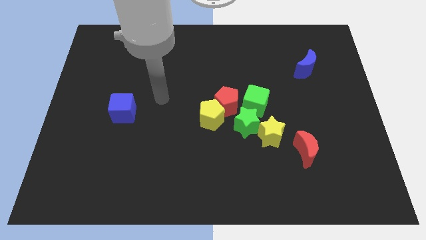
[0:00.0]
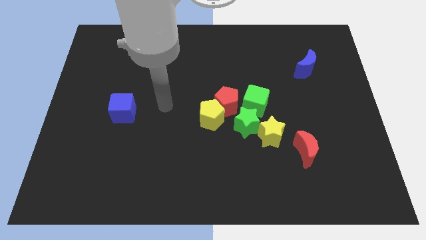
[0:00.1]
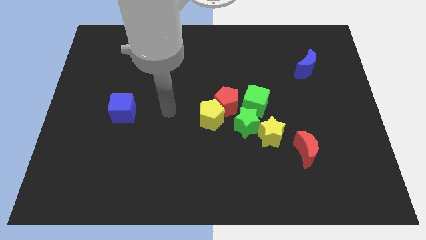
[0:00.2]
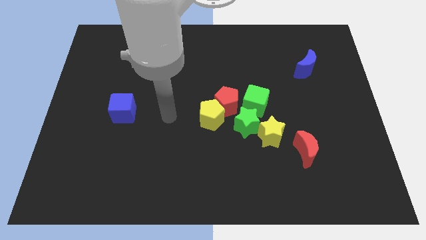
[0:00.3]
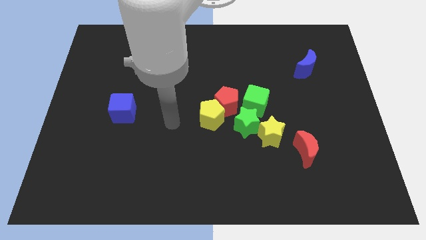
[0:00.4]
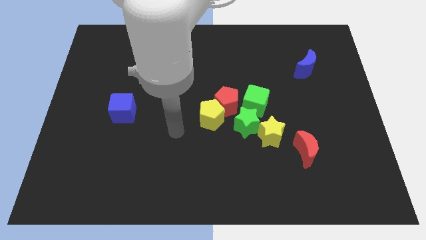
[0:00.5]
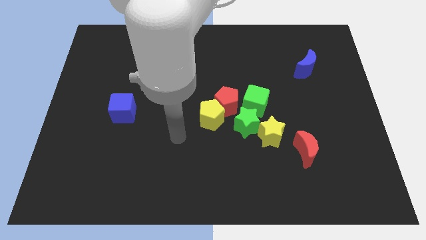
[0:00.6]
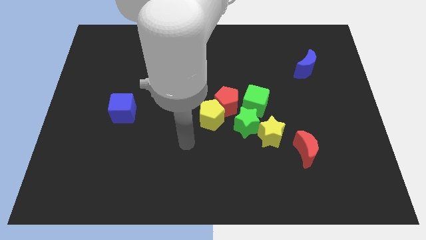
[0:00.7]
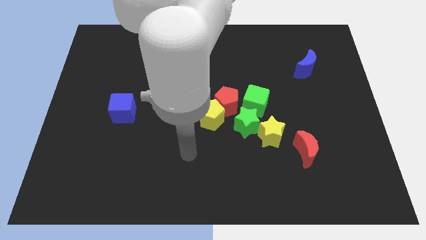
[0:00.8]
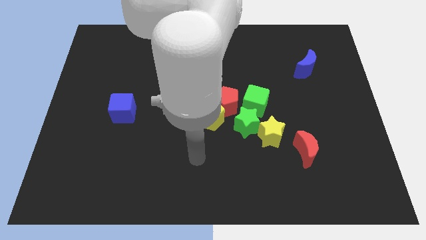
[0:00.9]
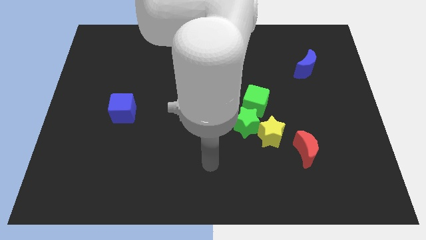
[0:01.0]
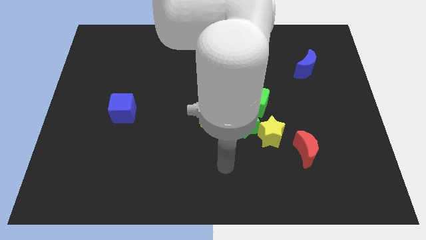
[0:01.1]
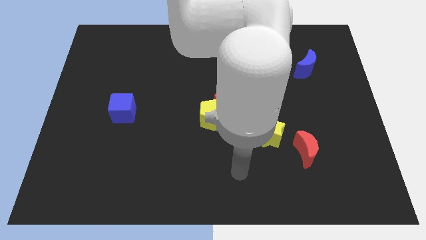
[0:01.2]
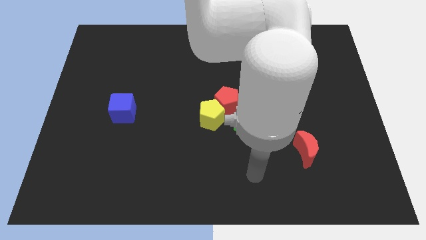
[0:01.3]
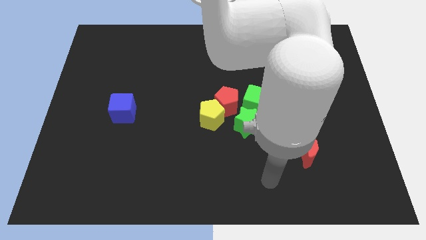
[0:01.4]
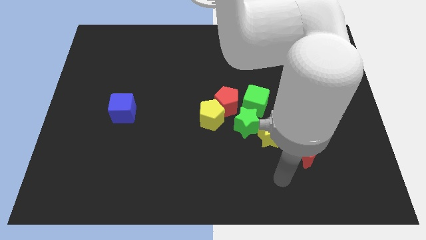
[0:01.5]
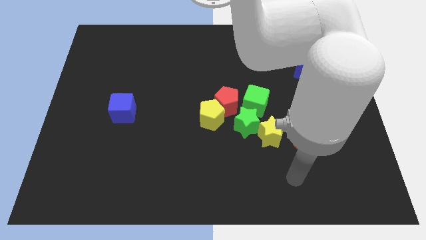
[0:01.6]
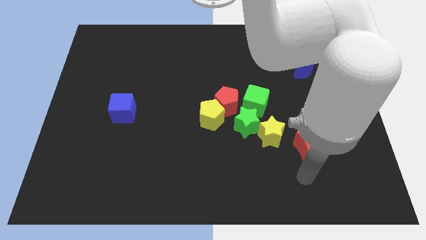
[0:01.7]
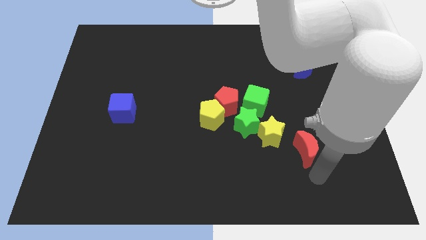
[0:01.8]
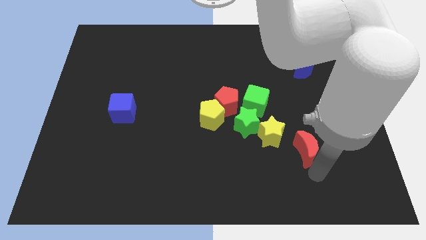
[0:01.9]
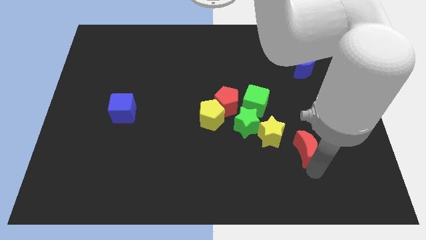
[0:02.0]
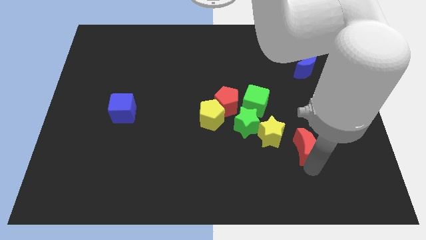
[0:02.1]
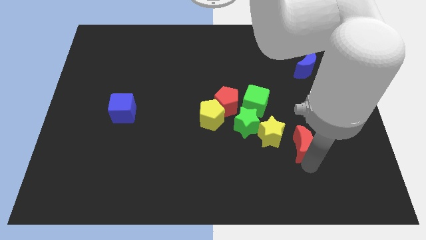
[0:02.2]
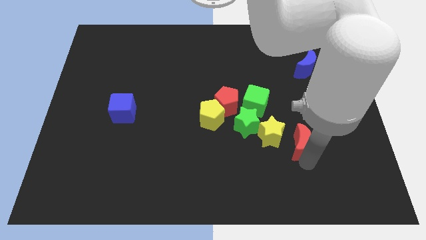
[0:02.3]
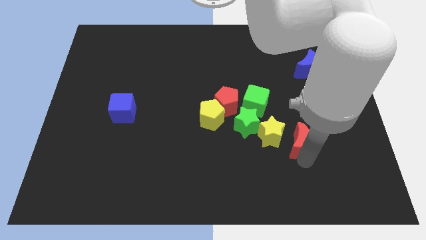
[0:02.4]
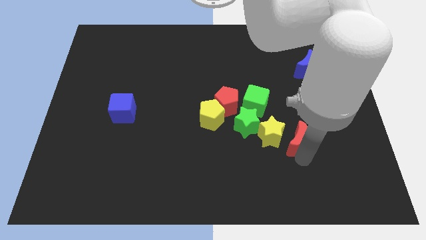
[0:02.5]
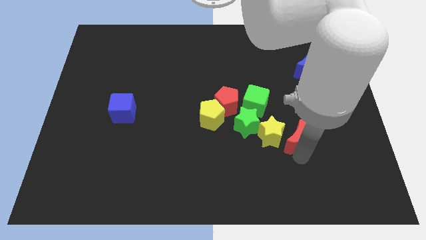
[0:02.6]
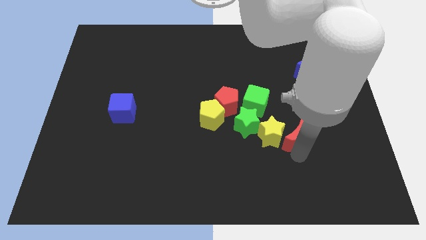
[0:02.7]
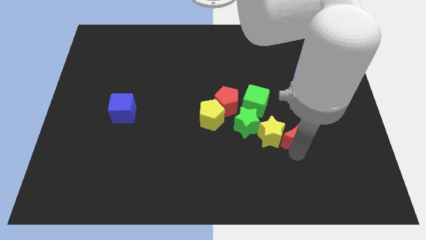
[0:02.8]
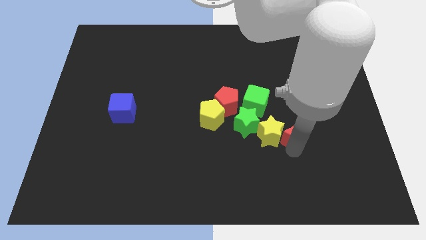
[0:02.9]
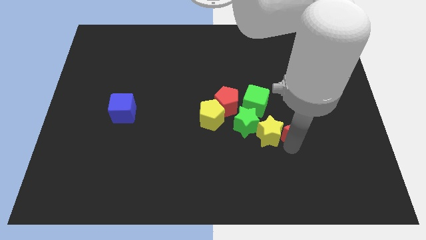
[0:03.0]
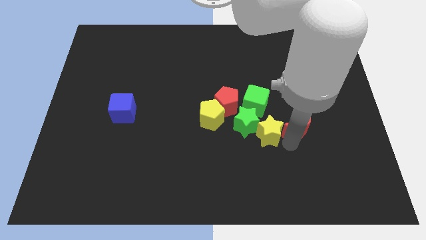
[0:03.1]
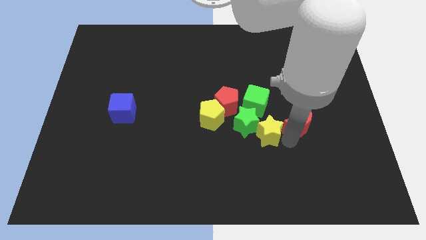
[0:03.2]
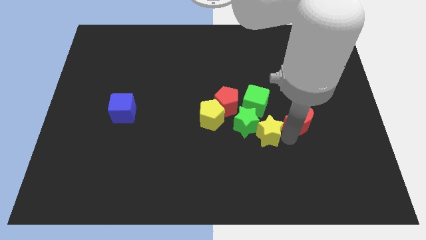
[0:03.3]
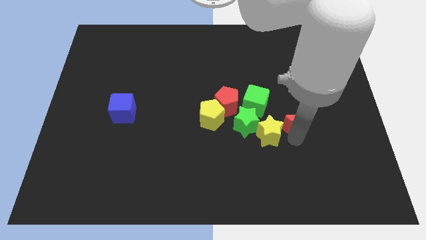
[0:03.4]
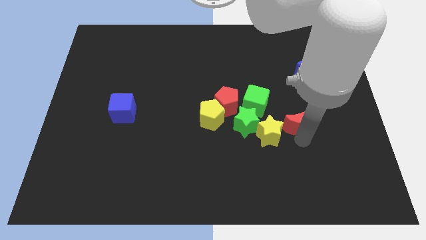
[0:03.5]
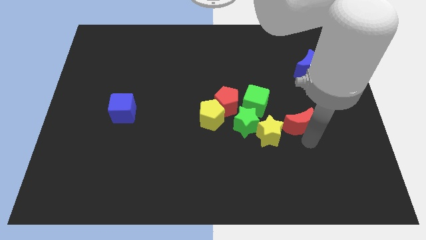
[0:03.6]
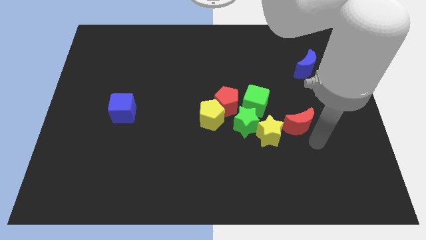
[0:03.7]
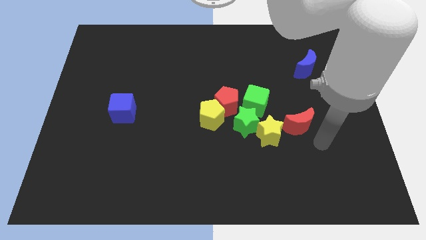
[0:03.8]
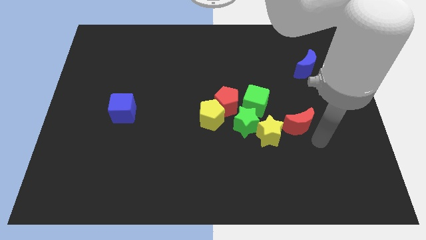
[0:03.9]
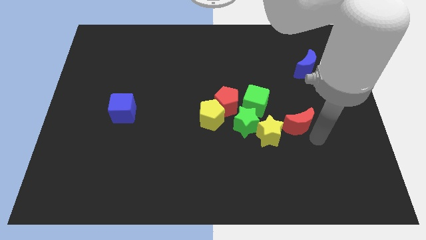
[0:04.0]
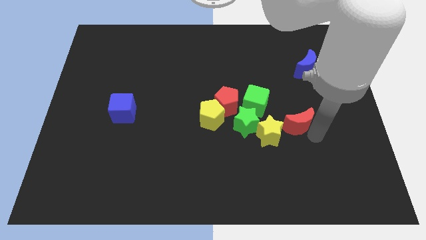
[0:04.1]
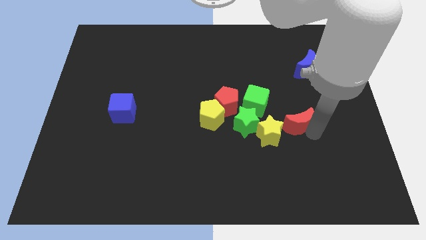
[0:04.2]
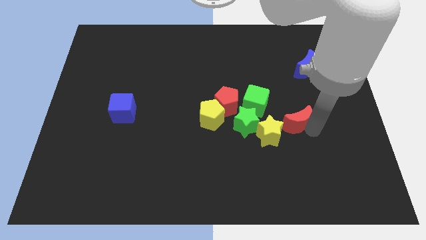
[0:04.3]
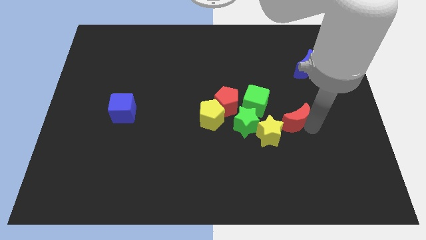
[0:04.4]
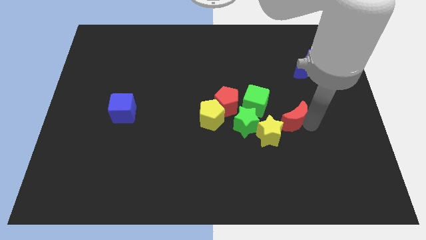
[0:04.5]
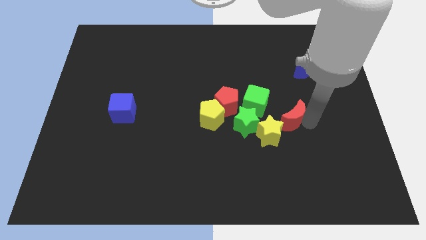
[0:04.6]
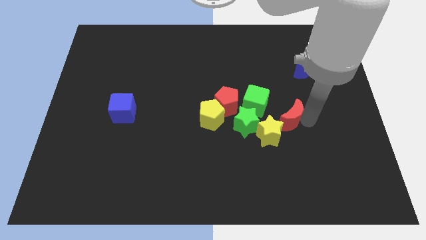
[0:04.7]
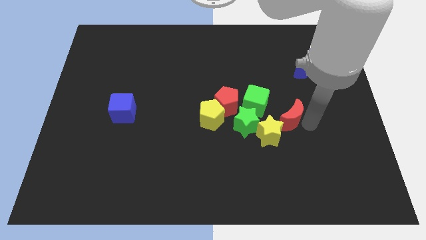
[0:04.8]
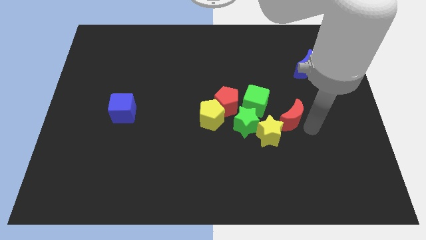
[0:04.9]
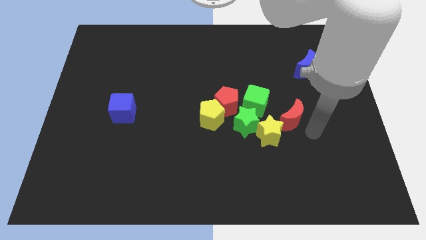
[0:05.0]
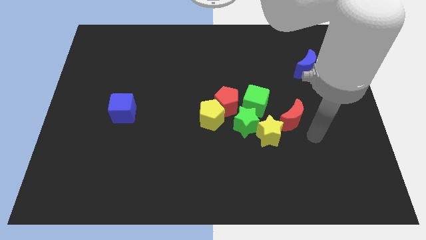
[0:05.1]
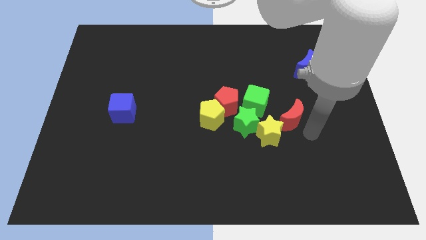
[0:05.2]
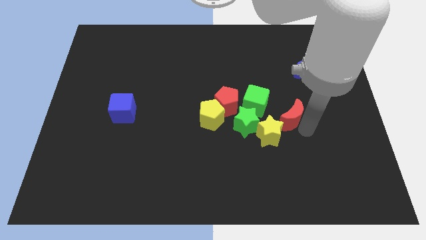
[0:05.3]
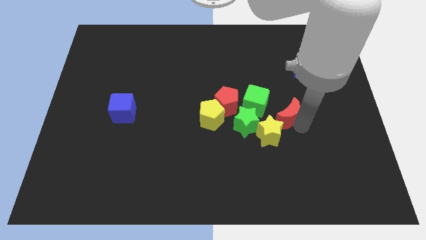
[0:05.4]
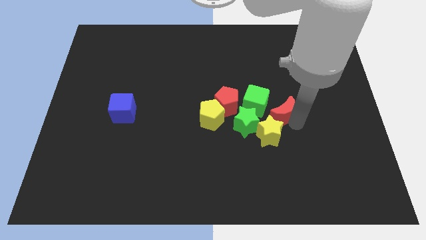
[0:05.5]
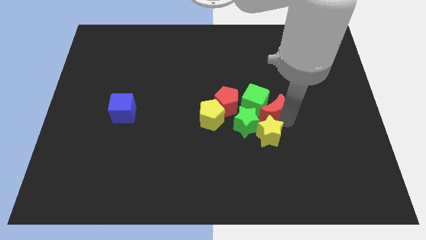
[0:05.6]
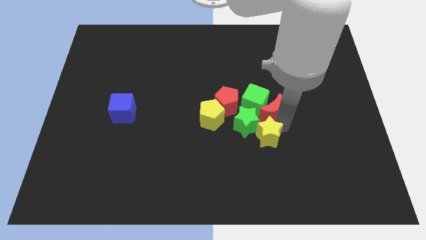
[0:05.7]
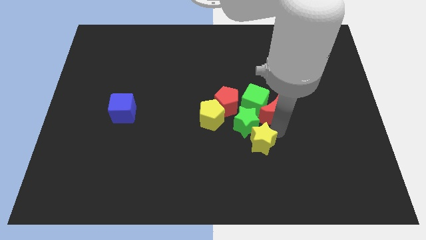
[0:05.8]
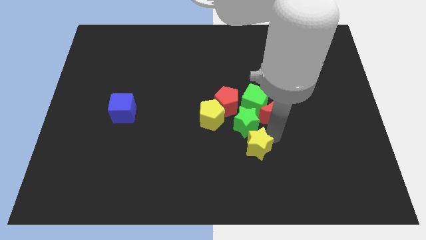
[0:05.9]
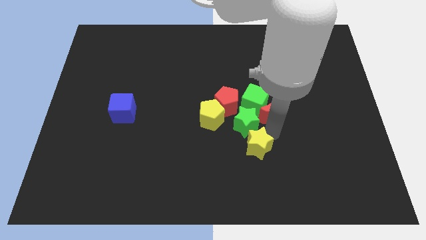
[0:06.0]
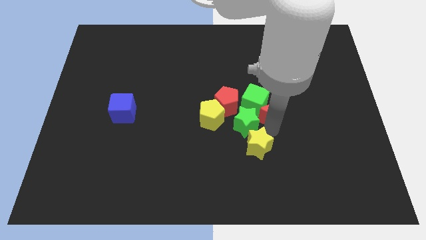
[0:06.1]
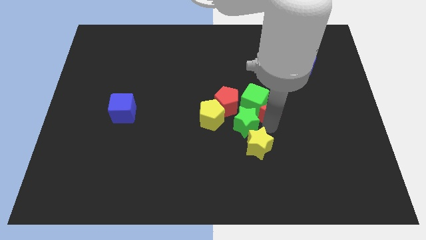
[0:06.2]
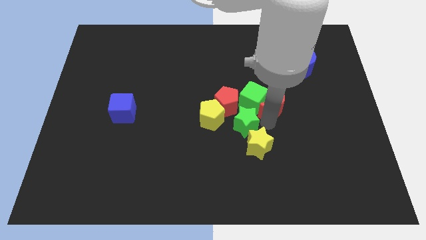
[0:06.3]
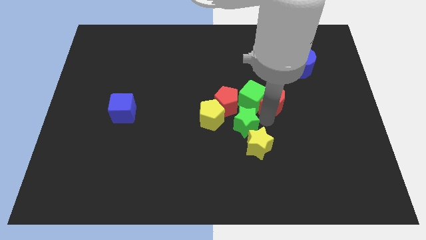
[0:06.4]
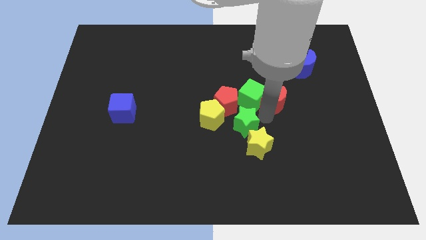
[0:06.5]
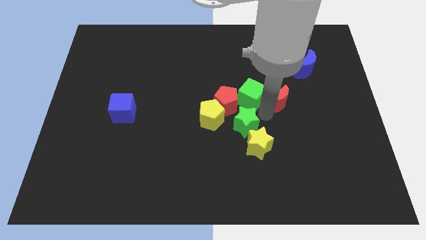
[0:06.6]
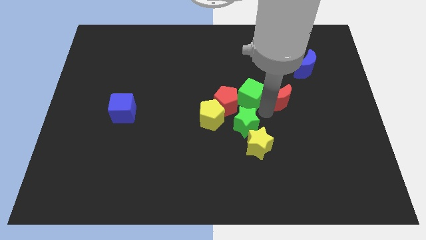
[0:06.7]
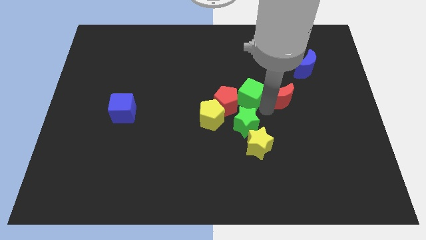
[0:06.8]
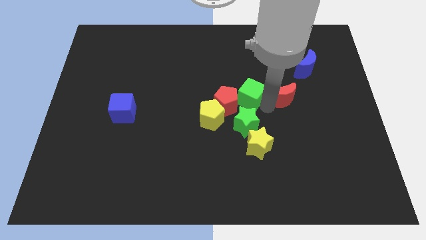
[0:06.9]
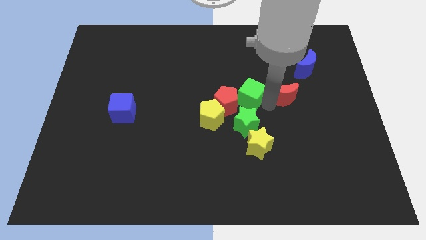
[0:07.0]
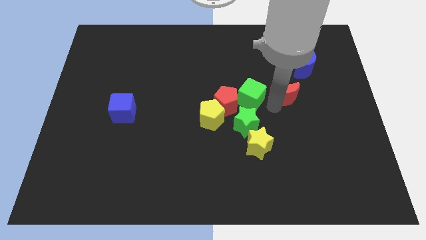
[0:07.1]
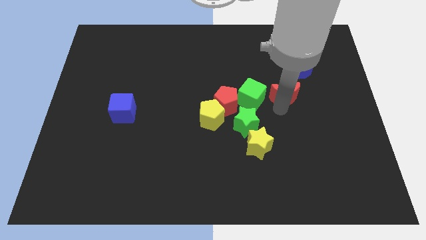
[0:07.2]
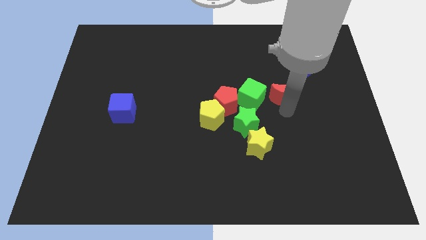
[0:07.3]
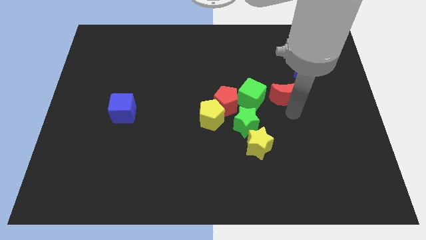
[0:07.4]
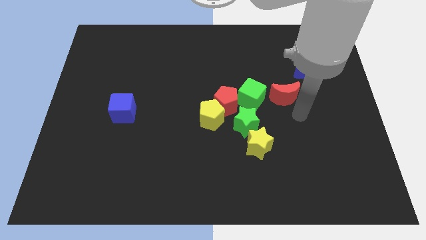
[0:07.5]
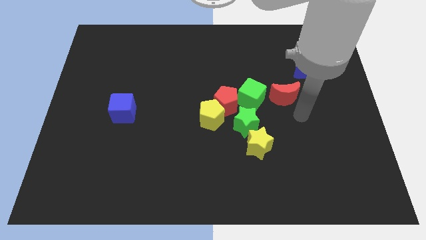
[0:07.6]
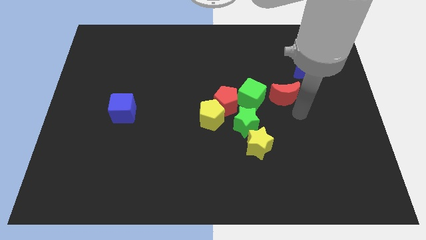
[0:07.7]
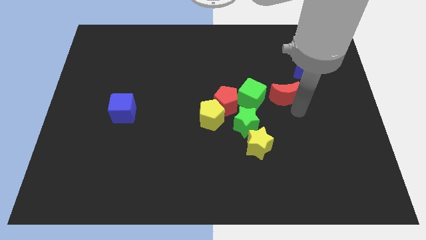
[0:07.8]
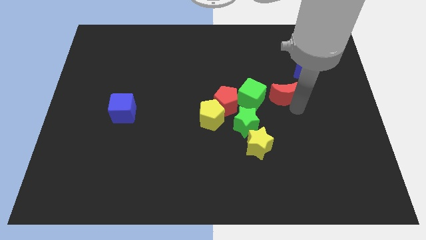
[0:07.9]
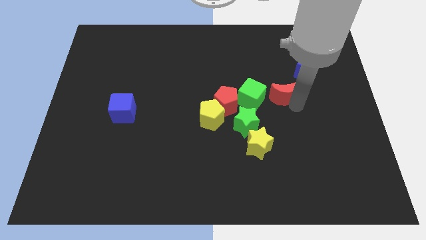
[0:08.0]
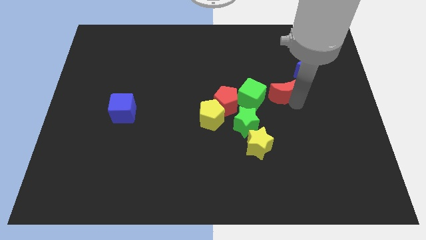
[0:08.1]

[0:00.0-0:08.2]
slide the red moon to the top right of the green cube
